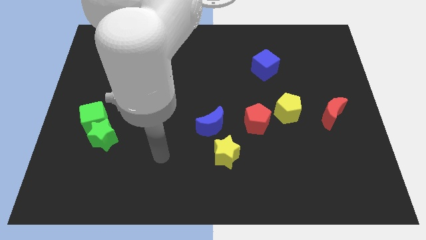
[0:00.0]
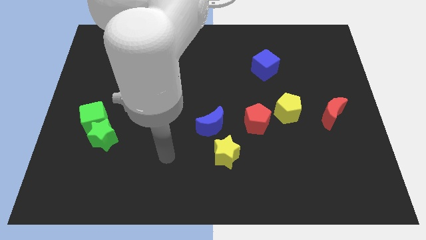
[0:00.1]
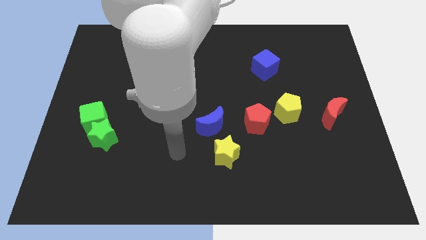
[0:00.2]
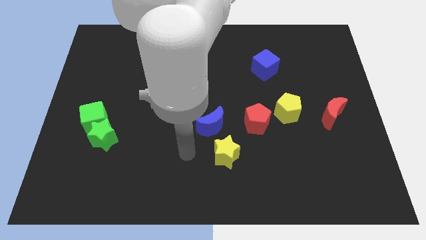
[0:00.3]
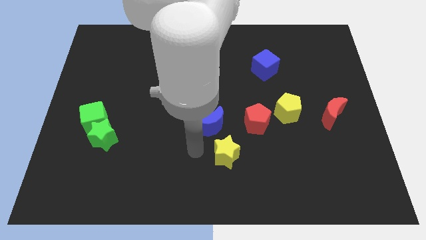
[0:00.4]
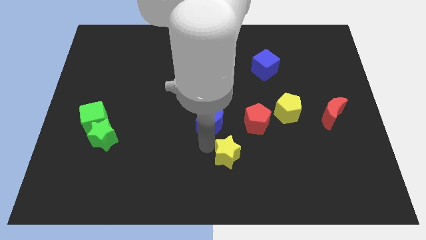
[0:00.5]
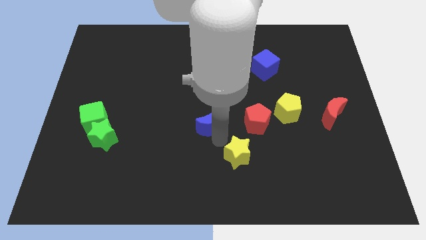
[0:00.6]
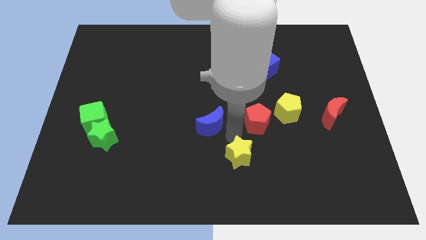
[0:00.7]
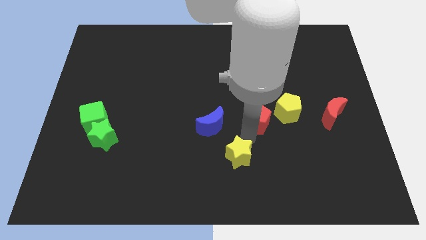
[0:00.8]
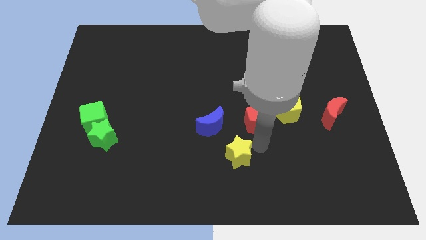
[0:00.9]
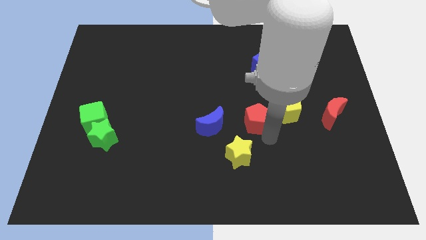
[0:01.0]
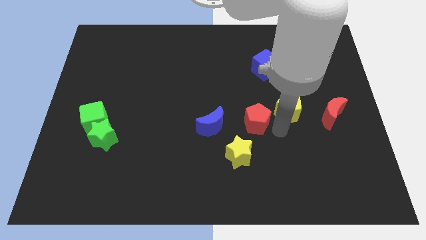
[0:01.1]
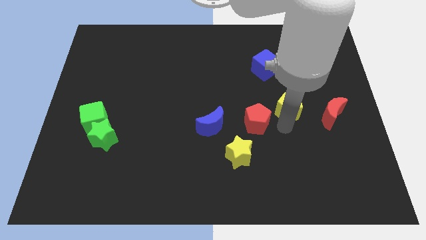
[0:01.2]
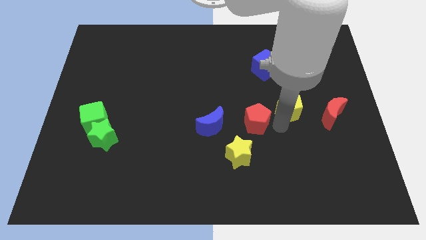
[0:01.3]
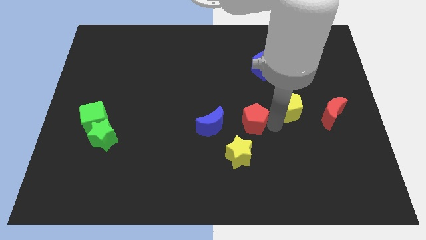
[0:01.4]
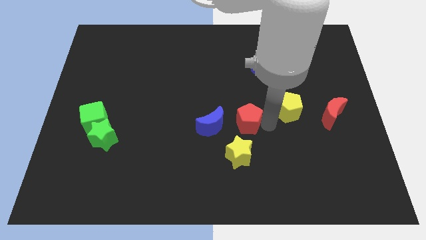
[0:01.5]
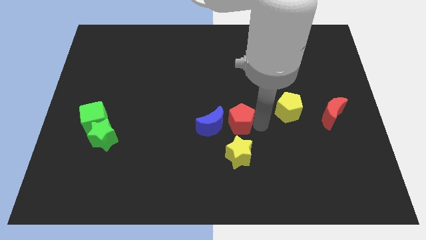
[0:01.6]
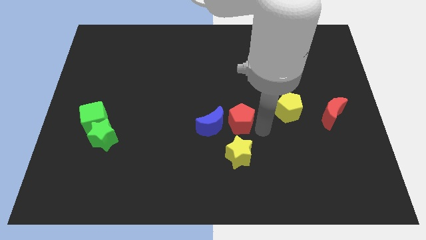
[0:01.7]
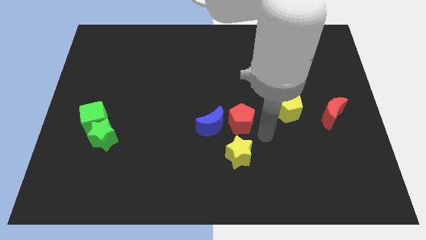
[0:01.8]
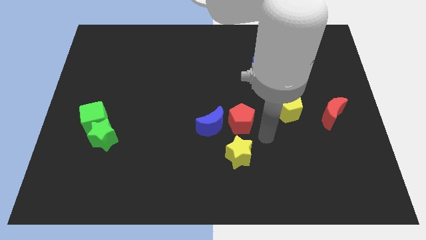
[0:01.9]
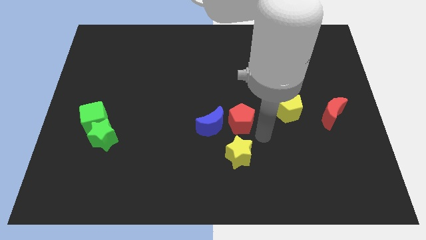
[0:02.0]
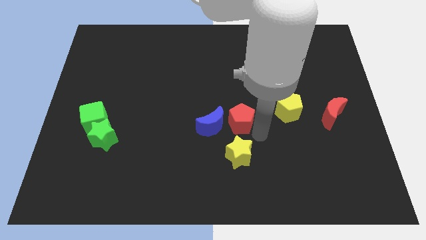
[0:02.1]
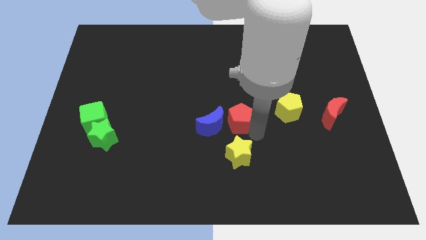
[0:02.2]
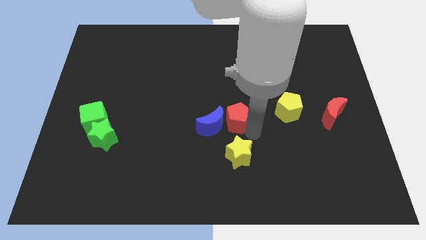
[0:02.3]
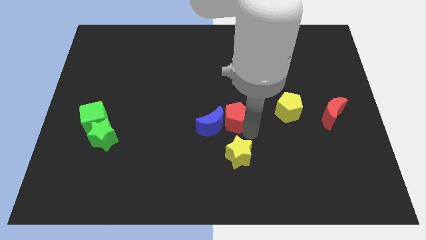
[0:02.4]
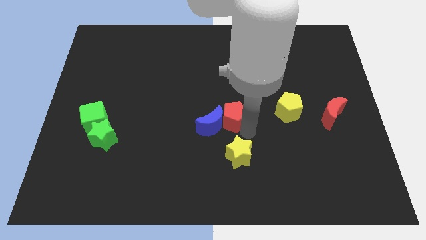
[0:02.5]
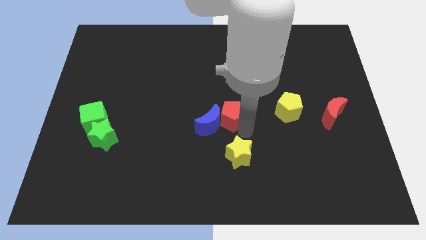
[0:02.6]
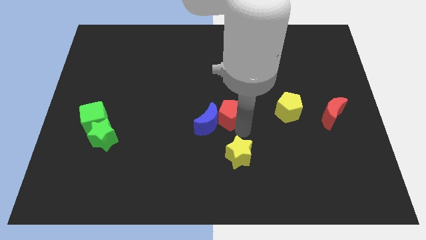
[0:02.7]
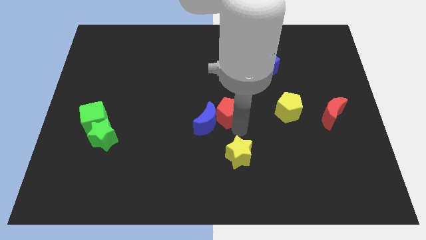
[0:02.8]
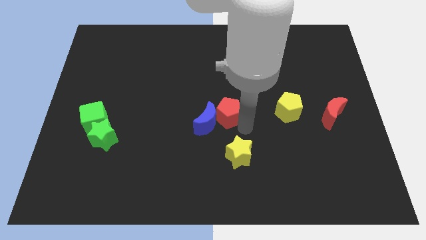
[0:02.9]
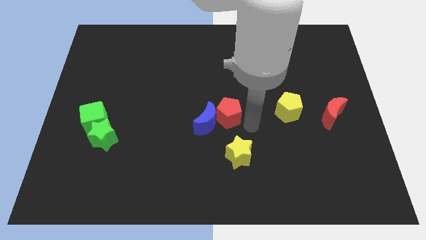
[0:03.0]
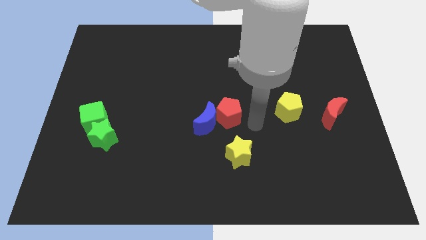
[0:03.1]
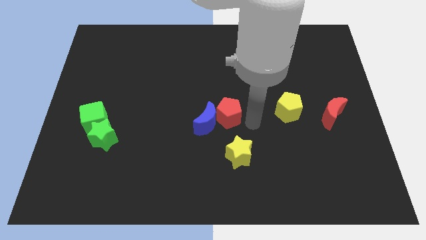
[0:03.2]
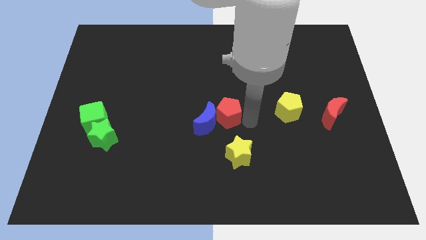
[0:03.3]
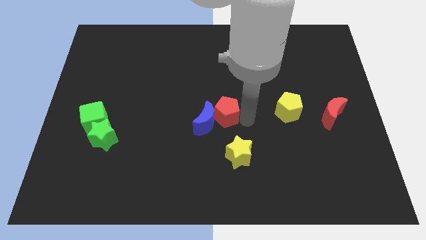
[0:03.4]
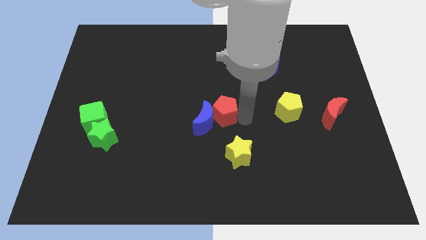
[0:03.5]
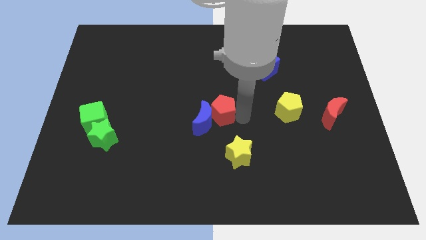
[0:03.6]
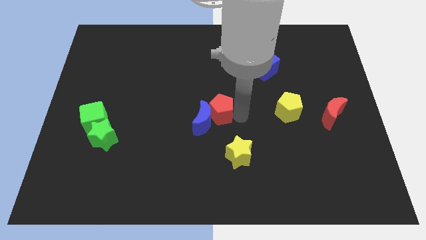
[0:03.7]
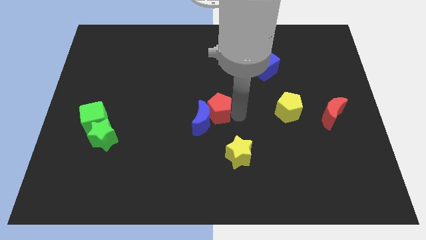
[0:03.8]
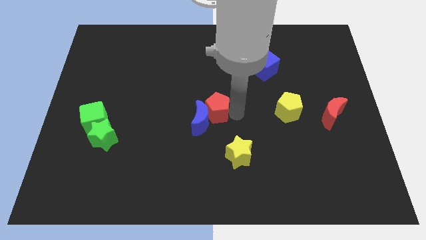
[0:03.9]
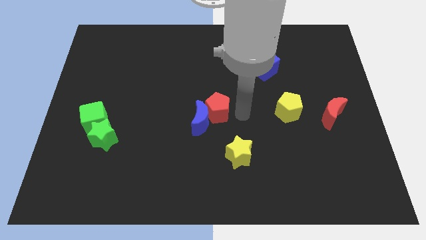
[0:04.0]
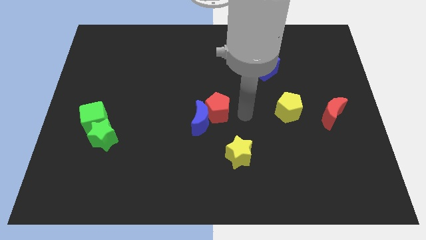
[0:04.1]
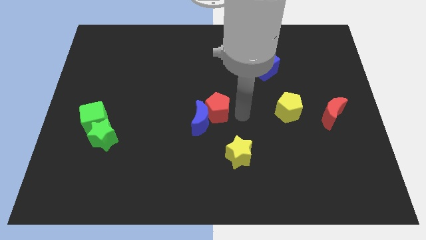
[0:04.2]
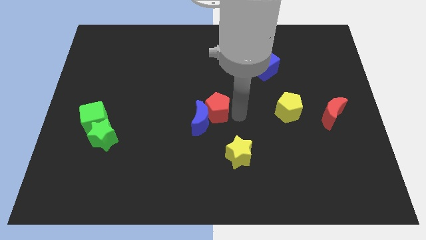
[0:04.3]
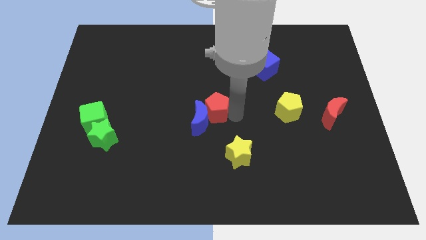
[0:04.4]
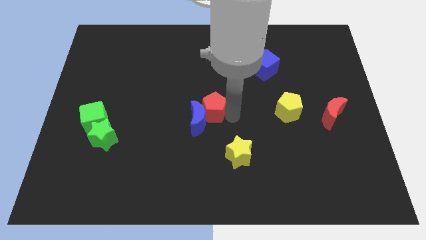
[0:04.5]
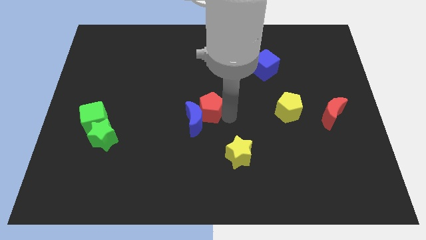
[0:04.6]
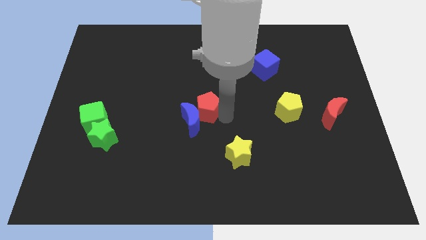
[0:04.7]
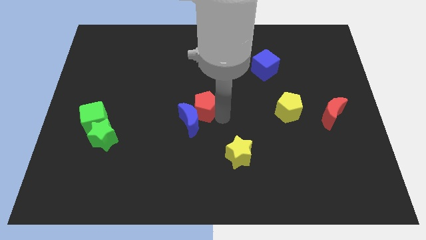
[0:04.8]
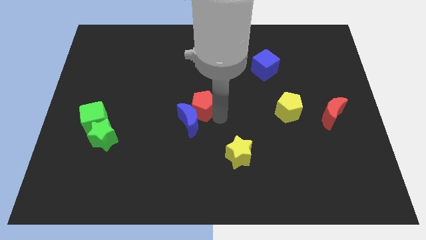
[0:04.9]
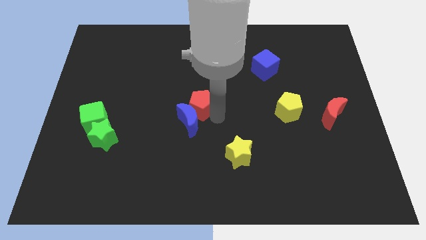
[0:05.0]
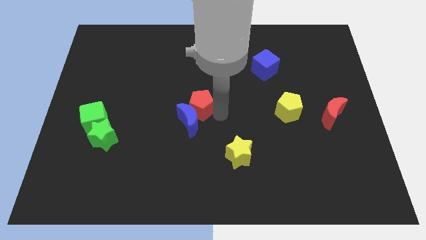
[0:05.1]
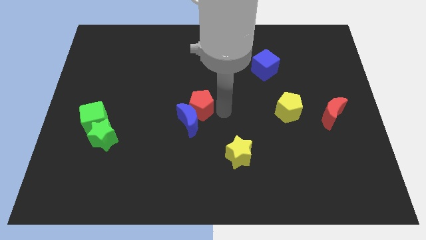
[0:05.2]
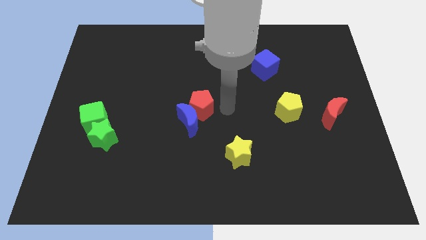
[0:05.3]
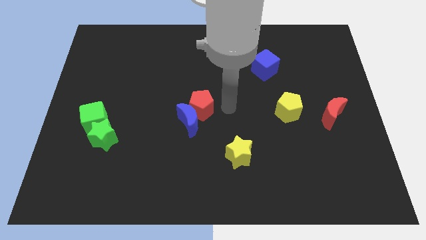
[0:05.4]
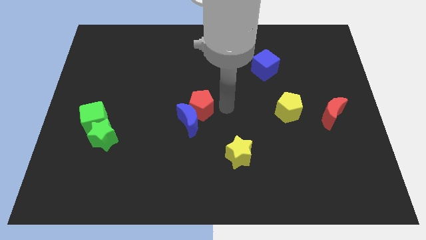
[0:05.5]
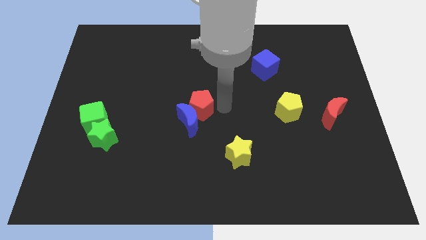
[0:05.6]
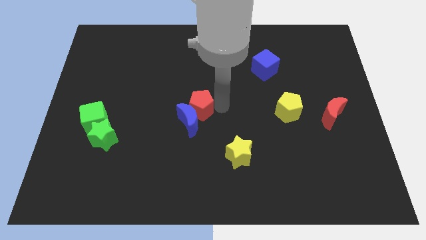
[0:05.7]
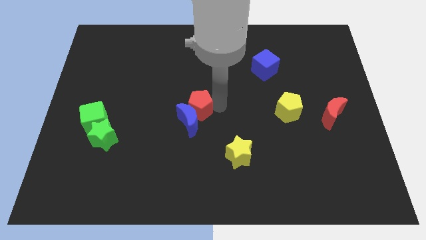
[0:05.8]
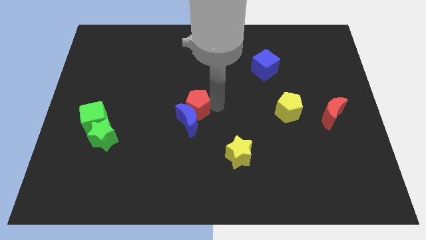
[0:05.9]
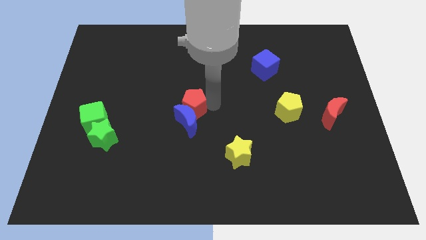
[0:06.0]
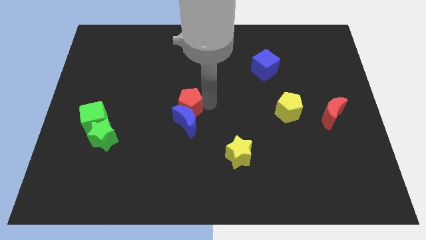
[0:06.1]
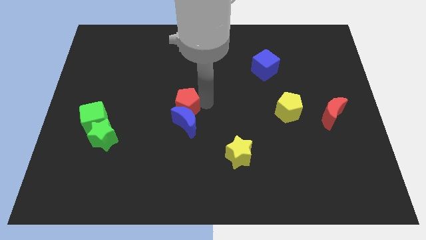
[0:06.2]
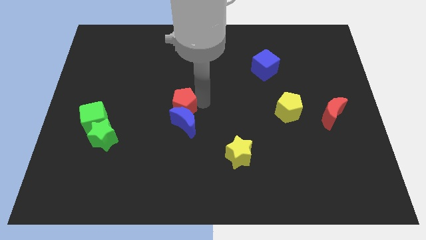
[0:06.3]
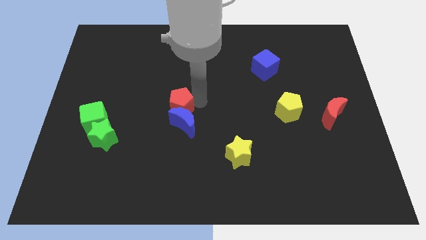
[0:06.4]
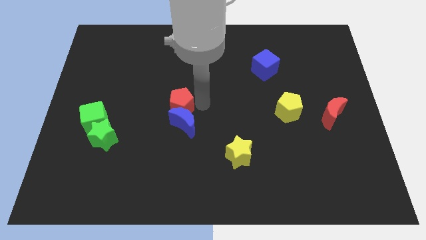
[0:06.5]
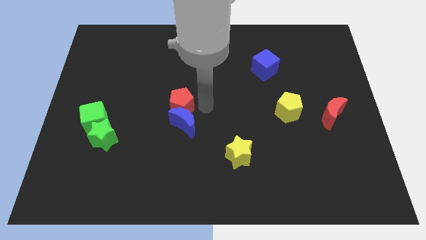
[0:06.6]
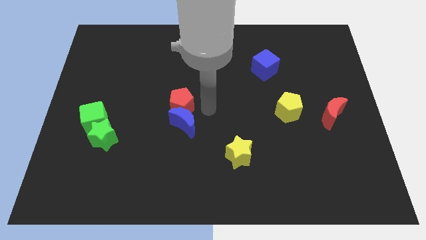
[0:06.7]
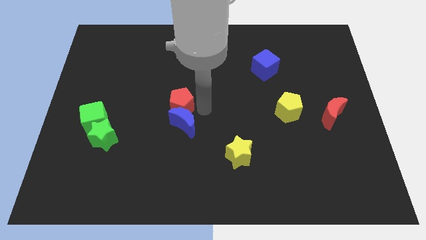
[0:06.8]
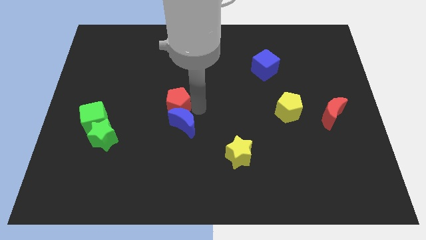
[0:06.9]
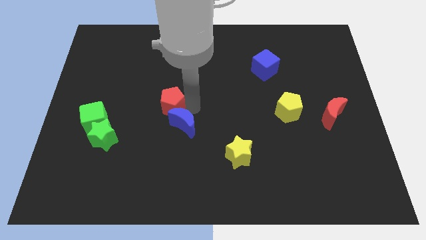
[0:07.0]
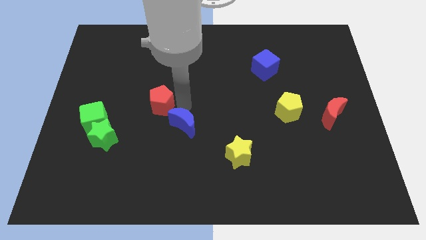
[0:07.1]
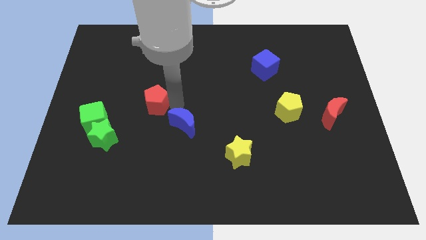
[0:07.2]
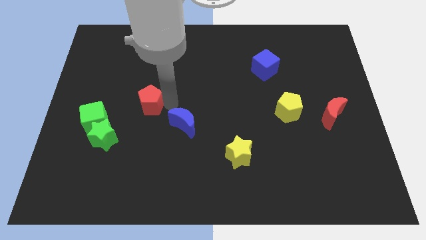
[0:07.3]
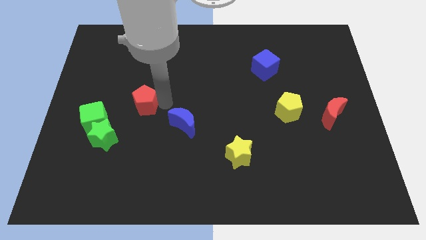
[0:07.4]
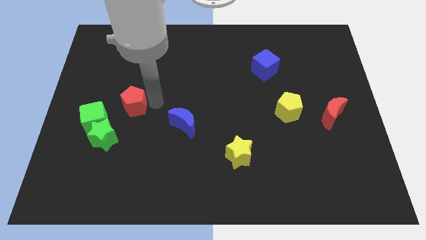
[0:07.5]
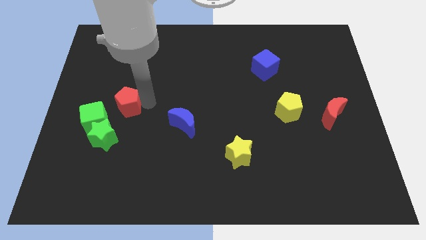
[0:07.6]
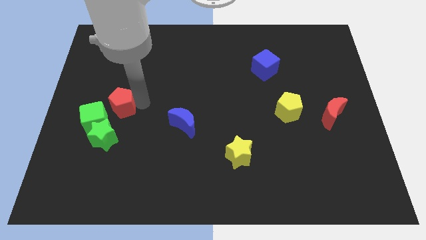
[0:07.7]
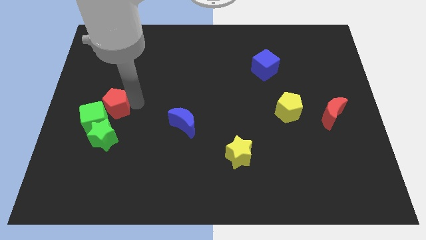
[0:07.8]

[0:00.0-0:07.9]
push the red pentagon next to the green cube
